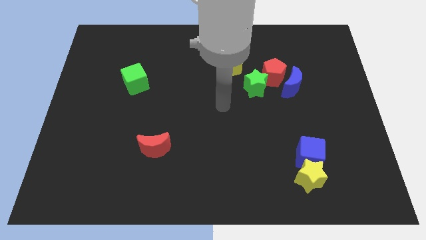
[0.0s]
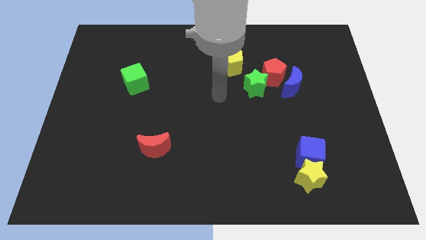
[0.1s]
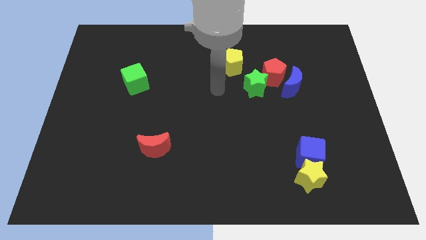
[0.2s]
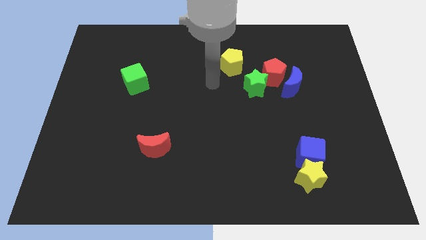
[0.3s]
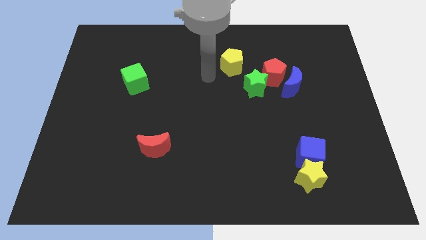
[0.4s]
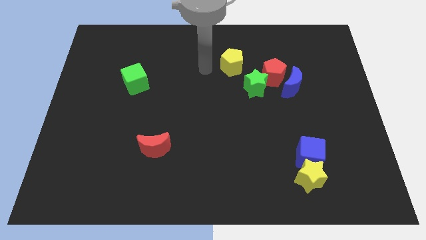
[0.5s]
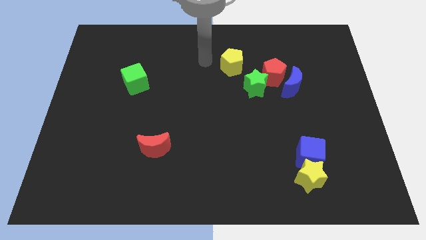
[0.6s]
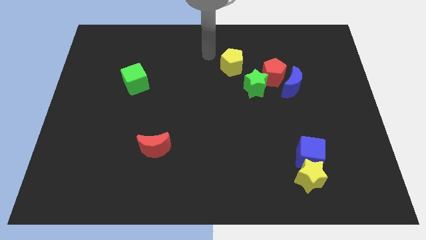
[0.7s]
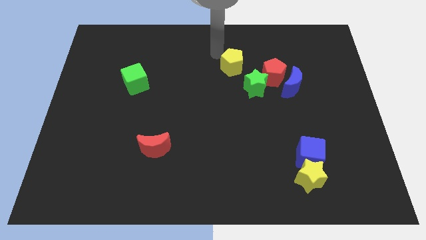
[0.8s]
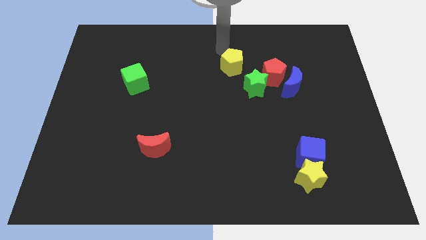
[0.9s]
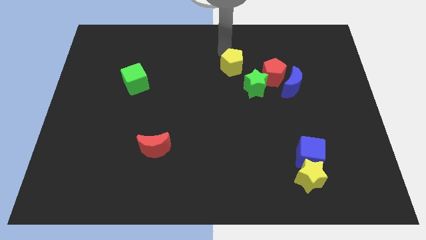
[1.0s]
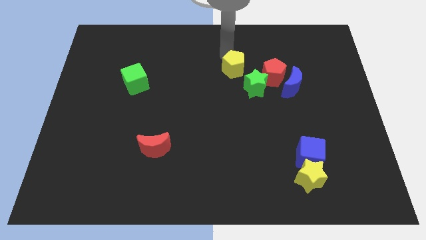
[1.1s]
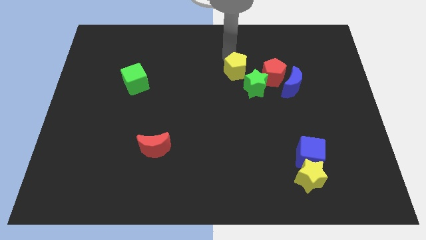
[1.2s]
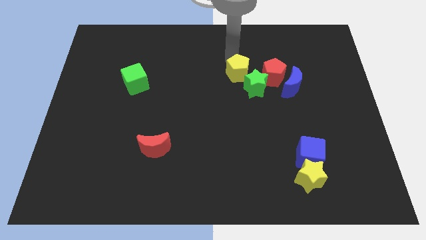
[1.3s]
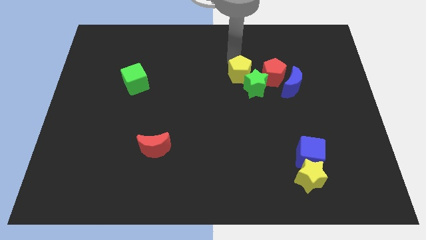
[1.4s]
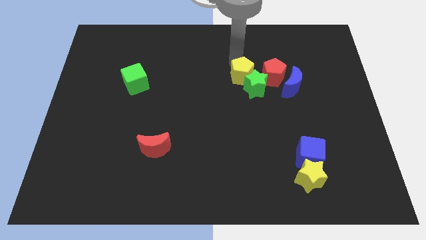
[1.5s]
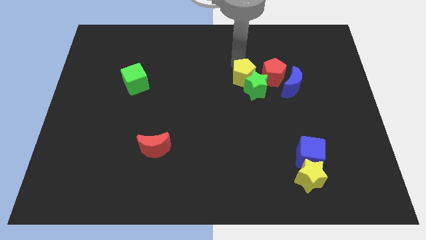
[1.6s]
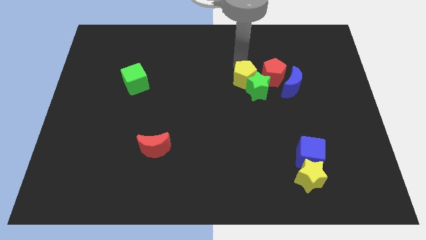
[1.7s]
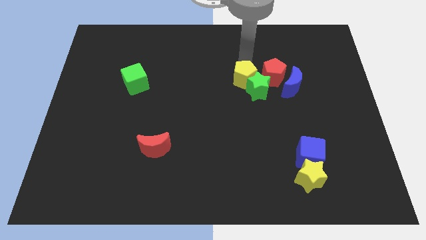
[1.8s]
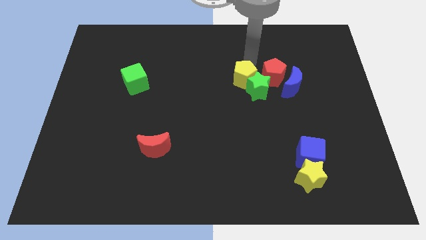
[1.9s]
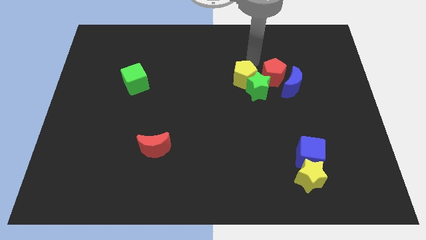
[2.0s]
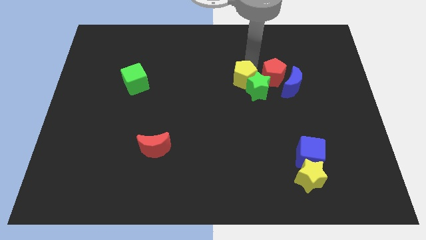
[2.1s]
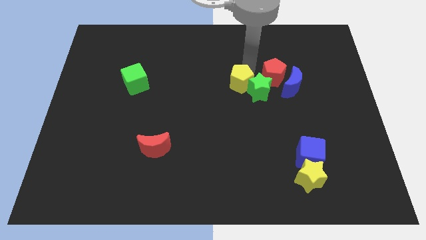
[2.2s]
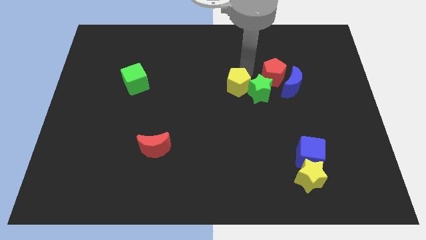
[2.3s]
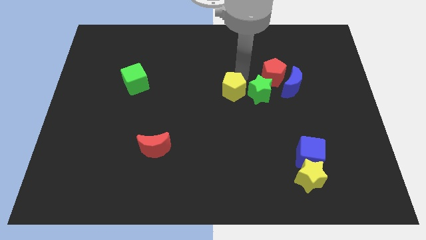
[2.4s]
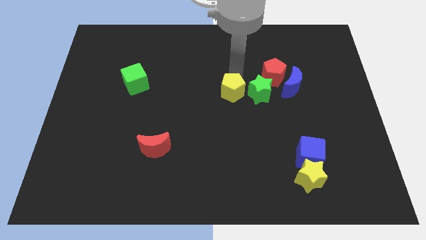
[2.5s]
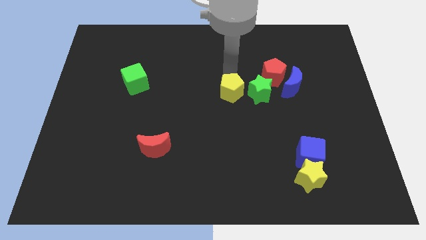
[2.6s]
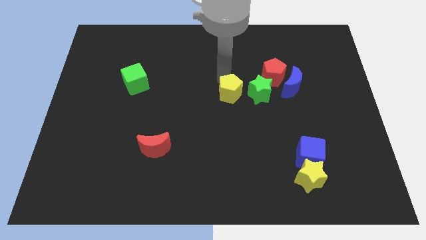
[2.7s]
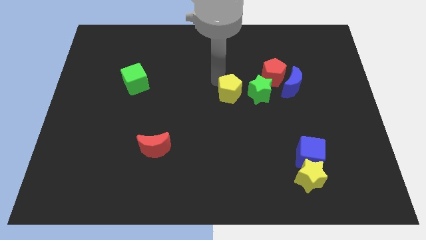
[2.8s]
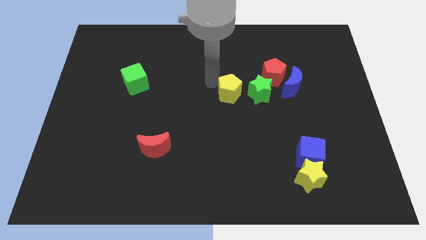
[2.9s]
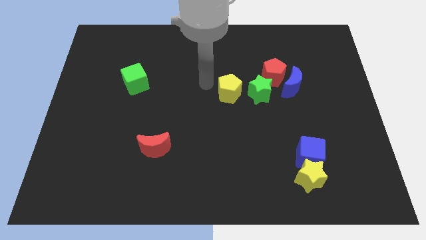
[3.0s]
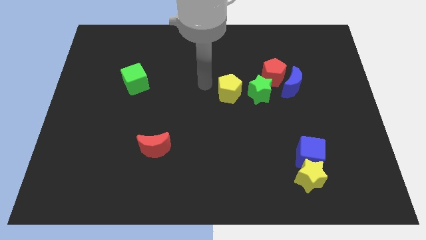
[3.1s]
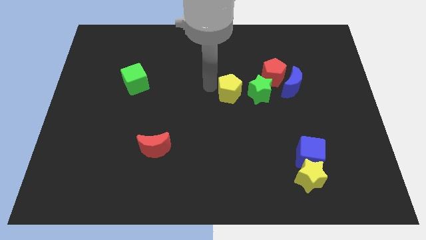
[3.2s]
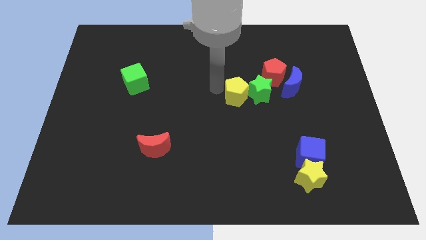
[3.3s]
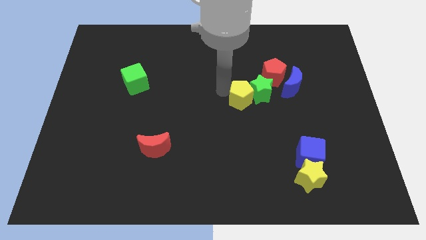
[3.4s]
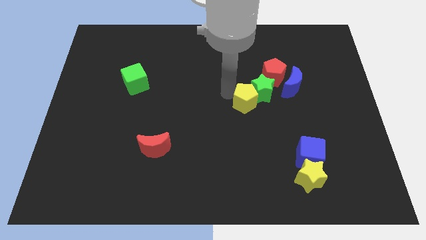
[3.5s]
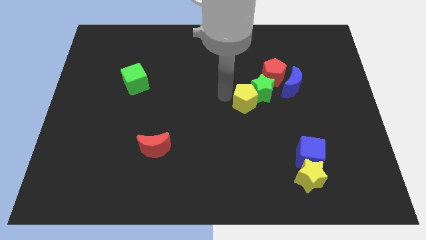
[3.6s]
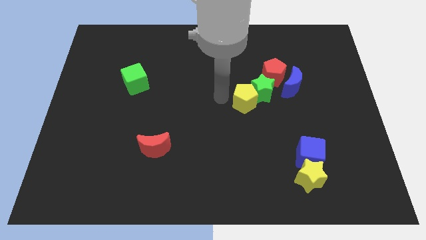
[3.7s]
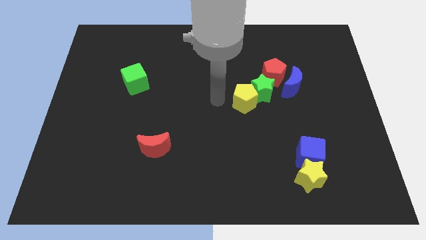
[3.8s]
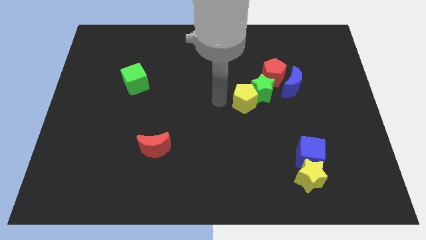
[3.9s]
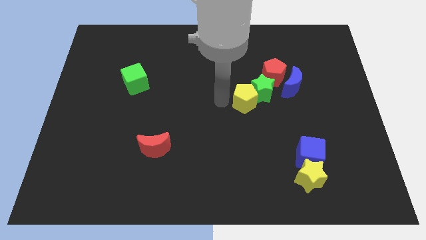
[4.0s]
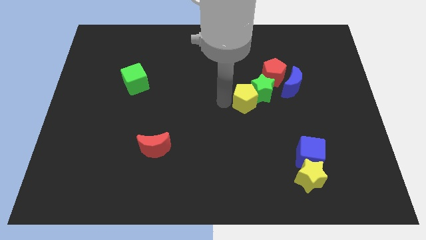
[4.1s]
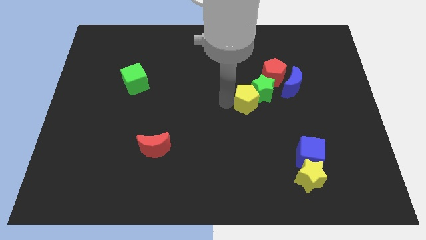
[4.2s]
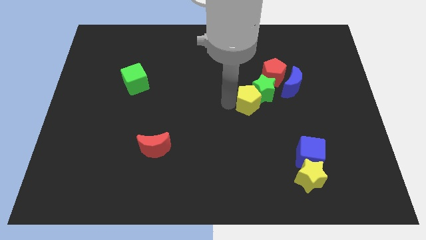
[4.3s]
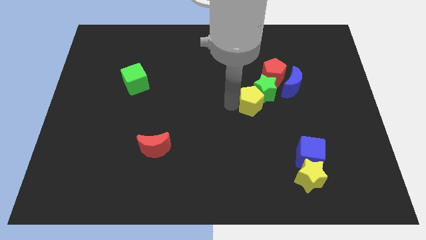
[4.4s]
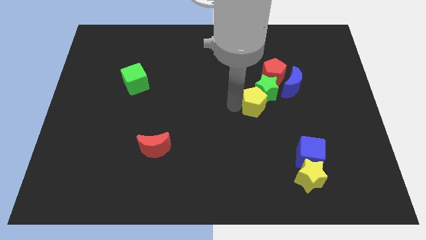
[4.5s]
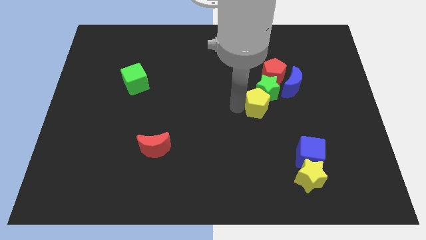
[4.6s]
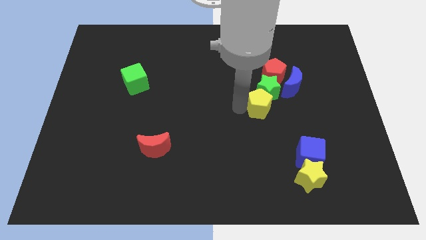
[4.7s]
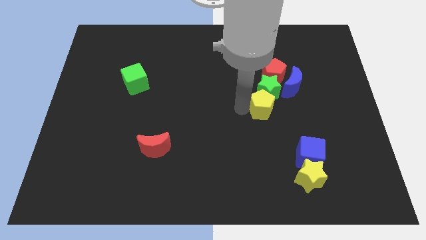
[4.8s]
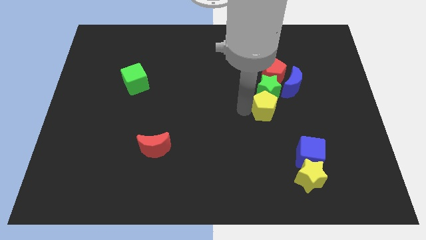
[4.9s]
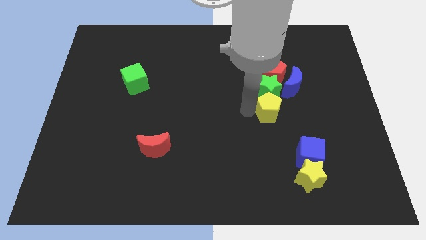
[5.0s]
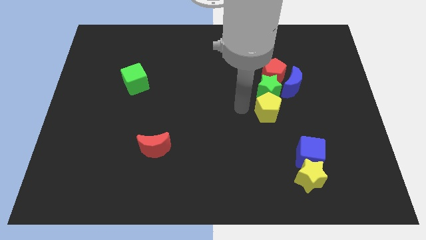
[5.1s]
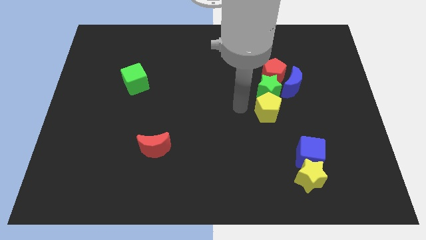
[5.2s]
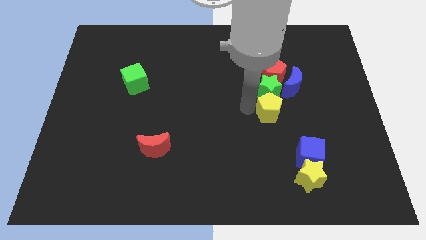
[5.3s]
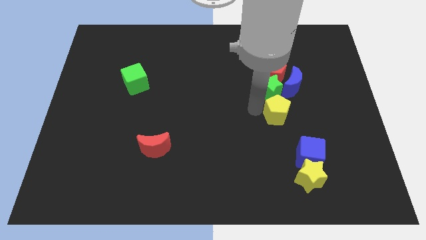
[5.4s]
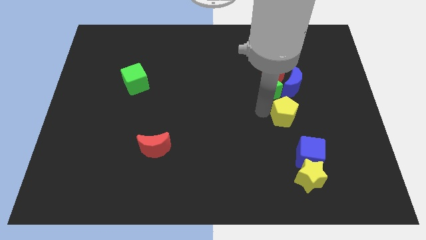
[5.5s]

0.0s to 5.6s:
slide the yellow pentagon to the top side of the blue cube

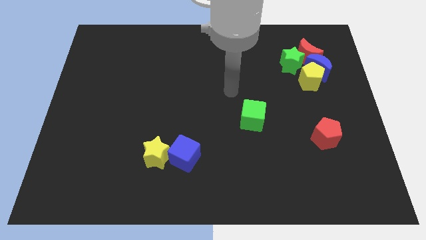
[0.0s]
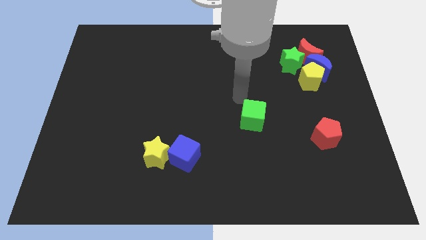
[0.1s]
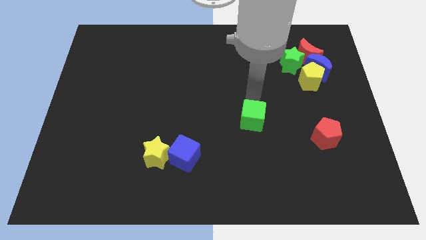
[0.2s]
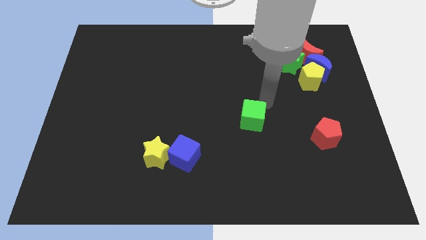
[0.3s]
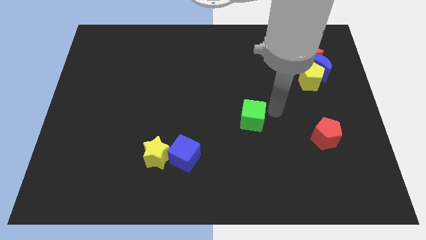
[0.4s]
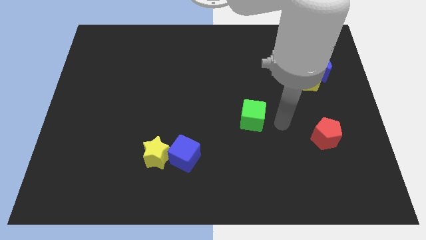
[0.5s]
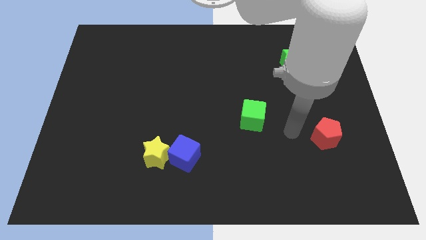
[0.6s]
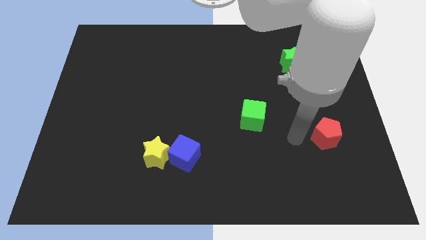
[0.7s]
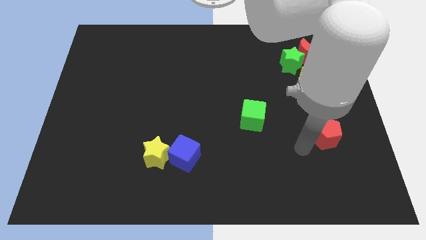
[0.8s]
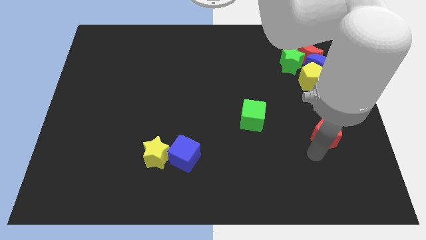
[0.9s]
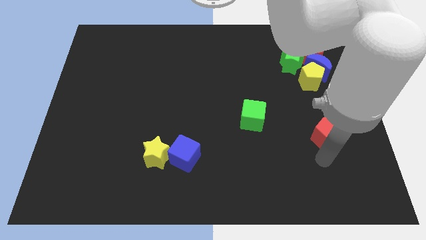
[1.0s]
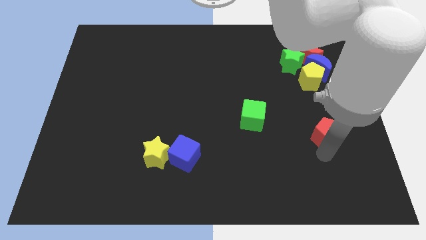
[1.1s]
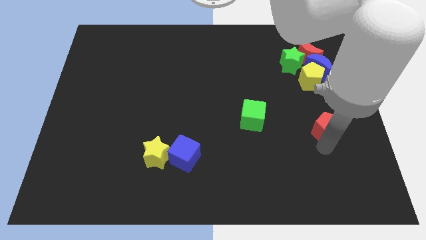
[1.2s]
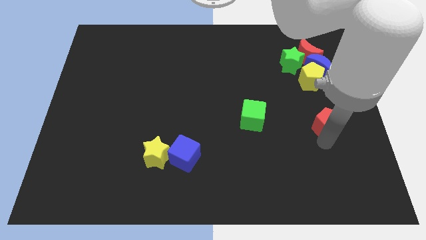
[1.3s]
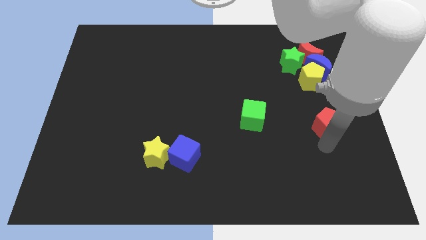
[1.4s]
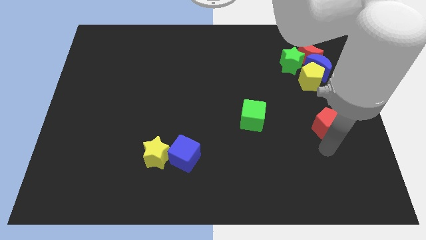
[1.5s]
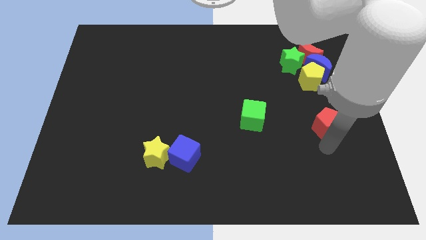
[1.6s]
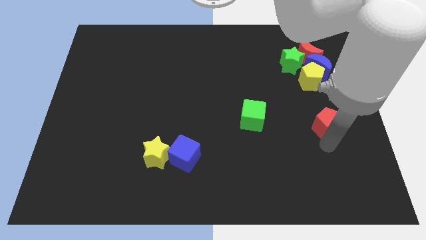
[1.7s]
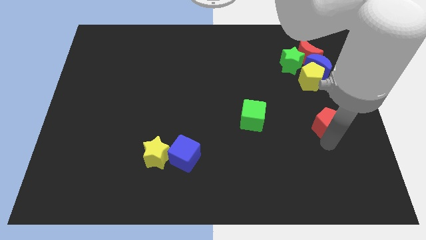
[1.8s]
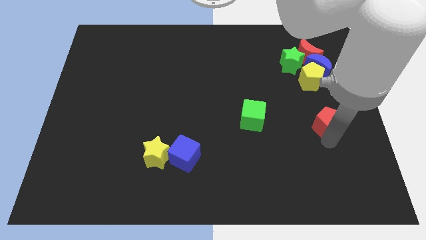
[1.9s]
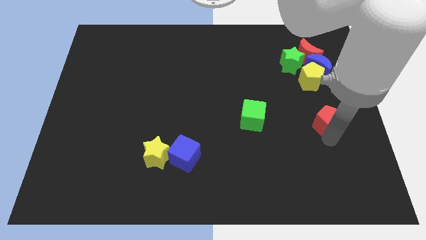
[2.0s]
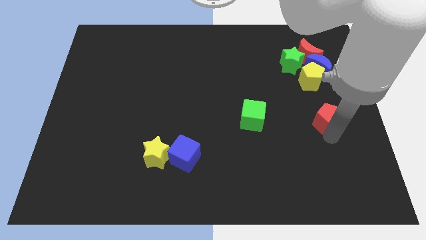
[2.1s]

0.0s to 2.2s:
put the red pentagon to the bottom of the blue moon

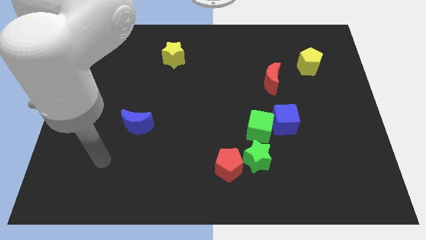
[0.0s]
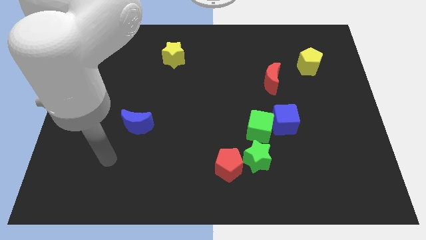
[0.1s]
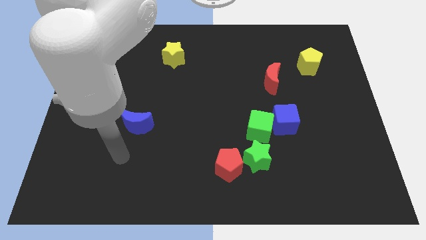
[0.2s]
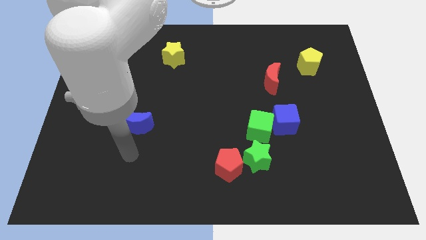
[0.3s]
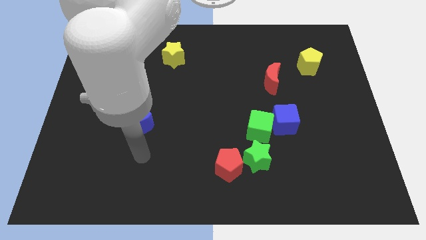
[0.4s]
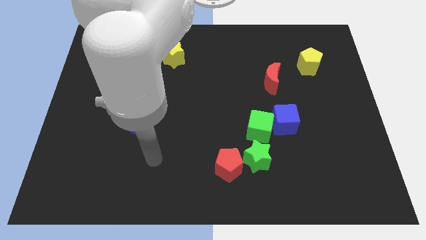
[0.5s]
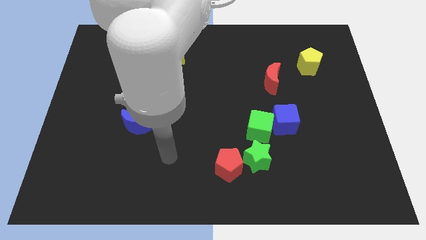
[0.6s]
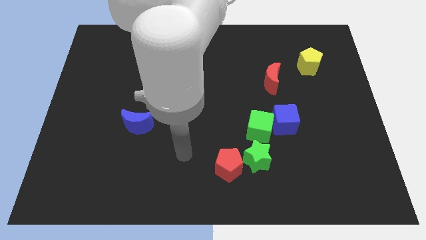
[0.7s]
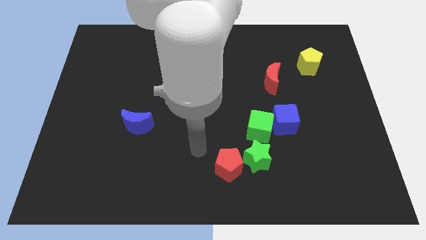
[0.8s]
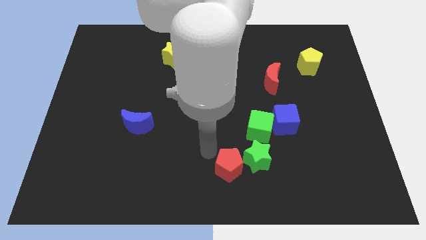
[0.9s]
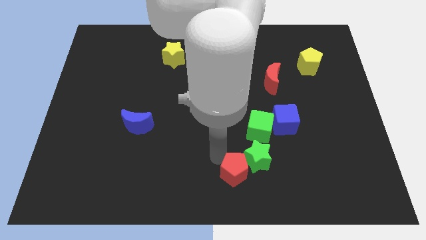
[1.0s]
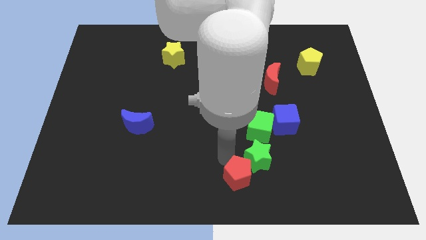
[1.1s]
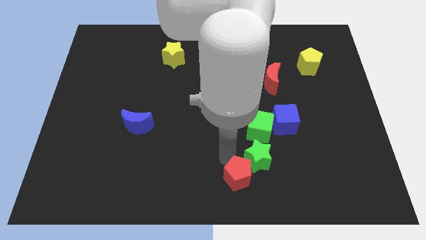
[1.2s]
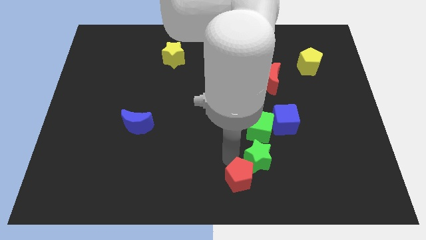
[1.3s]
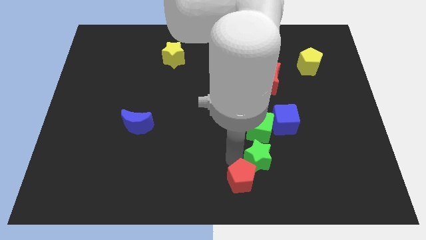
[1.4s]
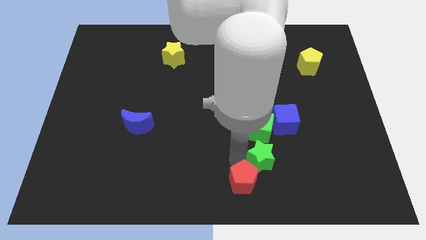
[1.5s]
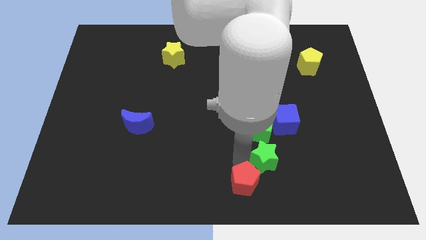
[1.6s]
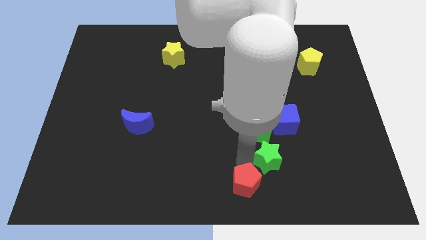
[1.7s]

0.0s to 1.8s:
push the green star to the bottom of the blue cube
